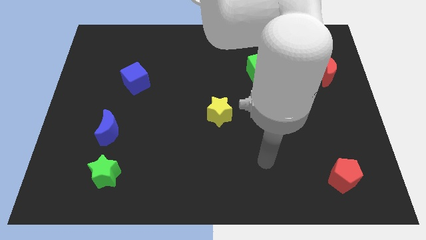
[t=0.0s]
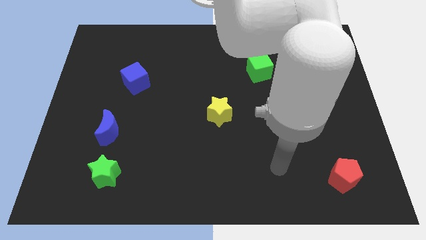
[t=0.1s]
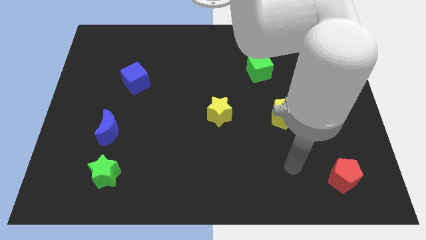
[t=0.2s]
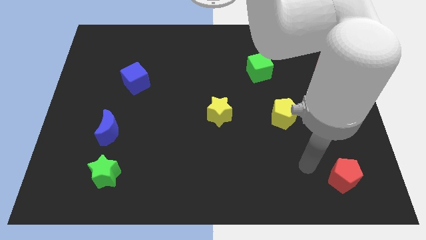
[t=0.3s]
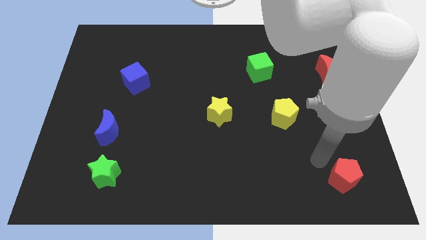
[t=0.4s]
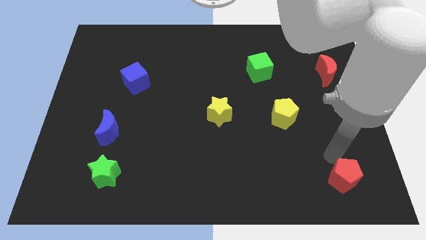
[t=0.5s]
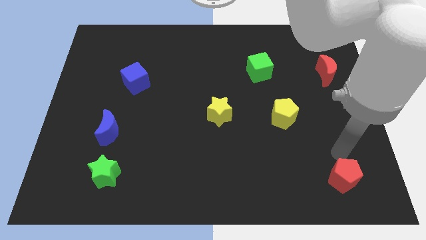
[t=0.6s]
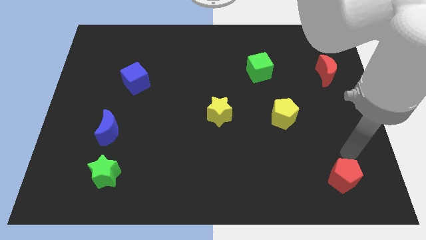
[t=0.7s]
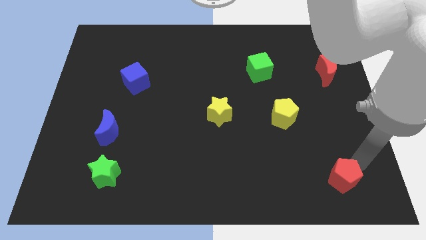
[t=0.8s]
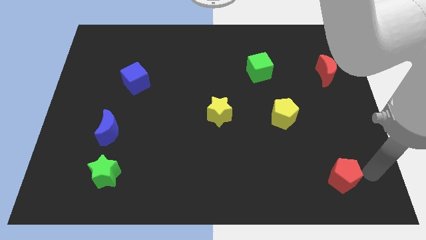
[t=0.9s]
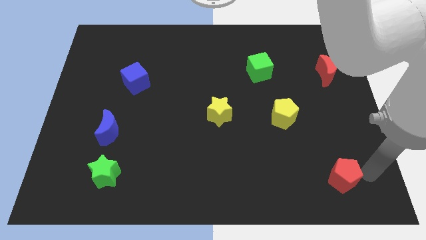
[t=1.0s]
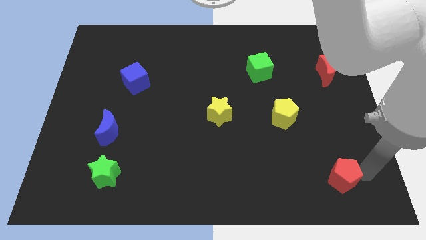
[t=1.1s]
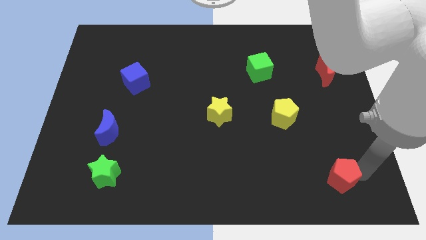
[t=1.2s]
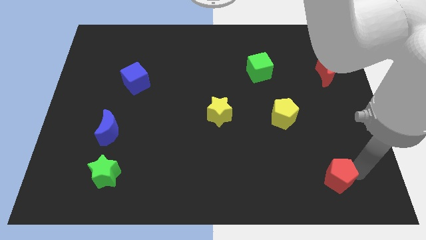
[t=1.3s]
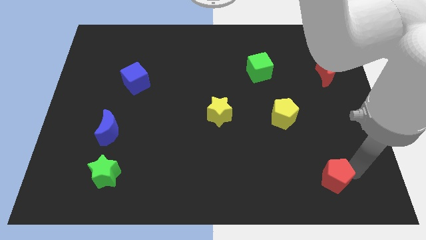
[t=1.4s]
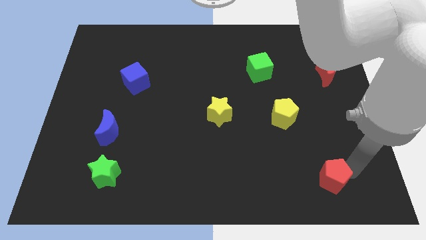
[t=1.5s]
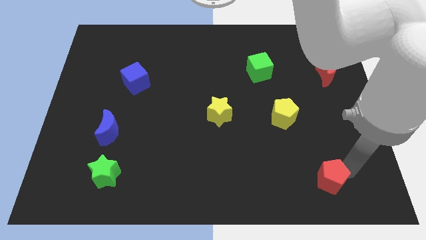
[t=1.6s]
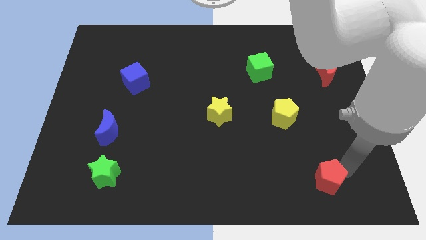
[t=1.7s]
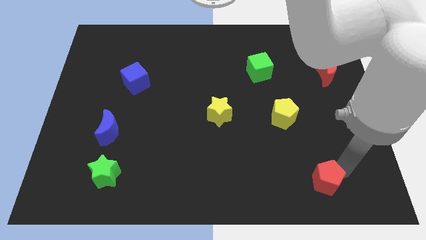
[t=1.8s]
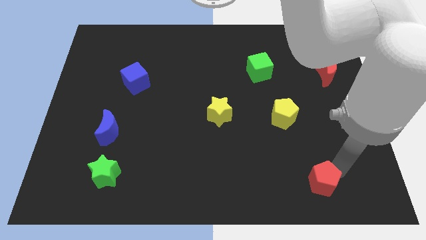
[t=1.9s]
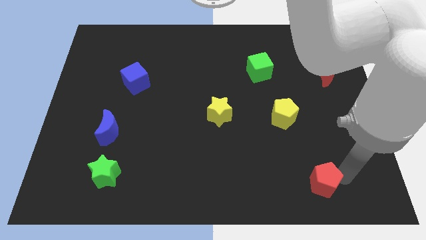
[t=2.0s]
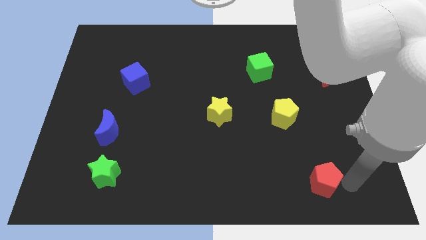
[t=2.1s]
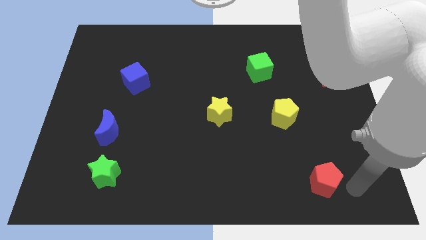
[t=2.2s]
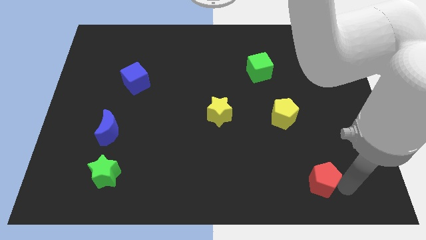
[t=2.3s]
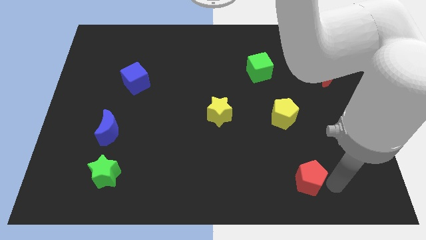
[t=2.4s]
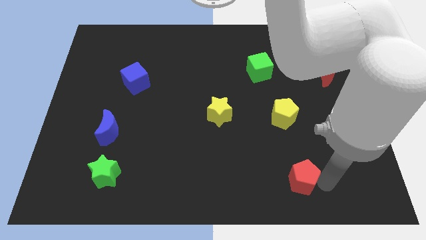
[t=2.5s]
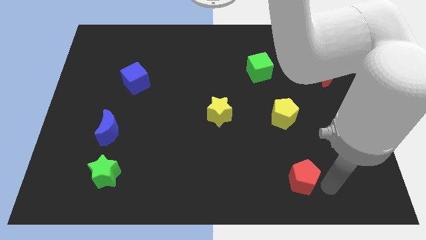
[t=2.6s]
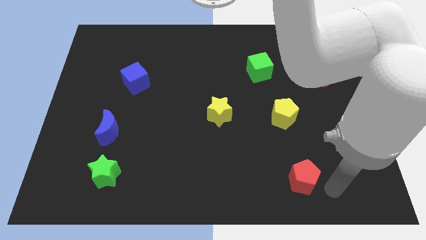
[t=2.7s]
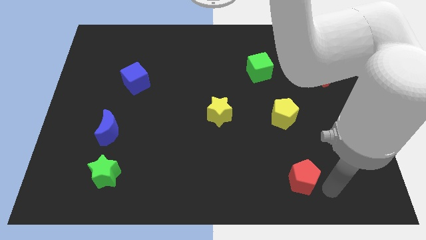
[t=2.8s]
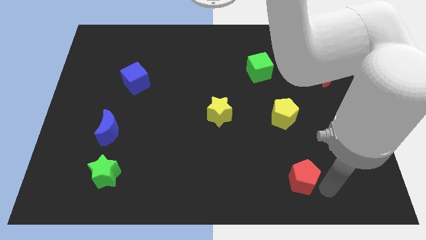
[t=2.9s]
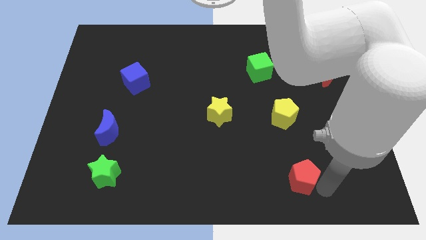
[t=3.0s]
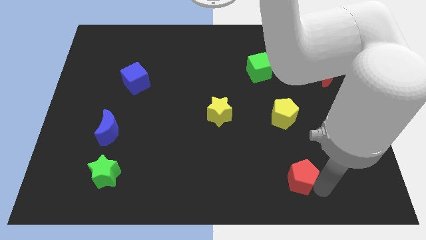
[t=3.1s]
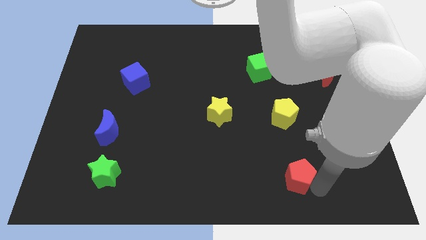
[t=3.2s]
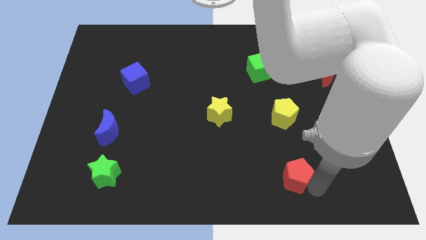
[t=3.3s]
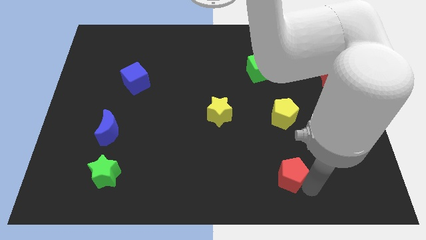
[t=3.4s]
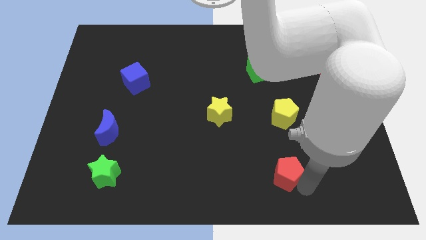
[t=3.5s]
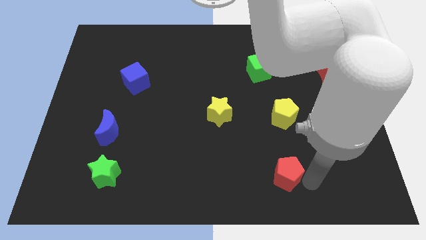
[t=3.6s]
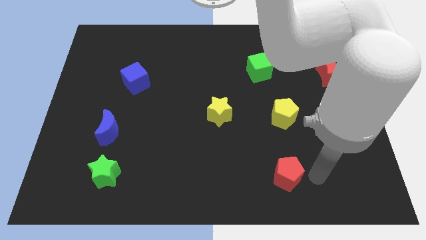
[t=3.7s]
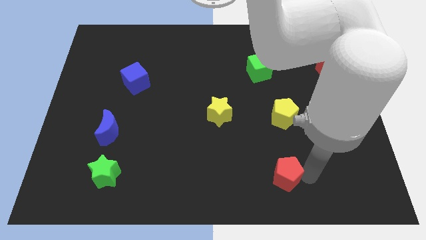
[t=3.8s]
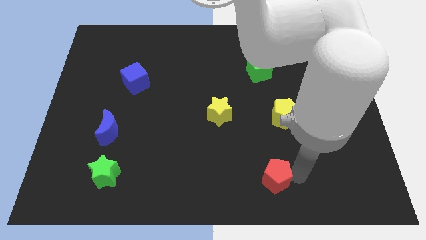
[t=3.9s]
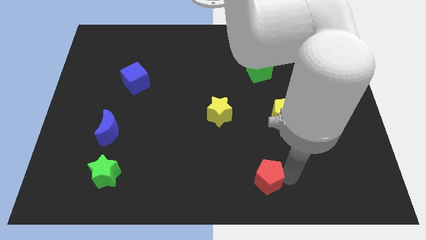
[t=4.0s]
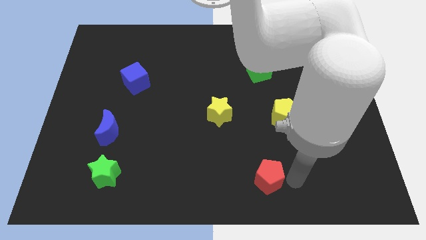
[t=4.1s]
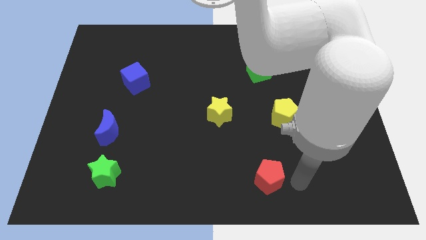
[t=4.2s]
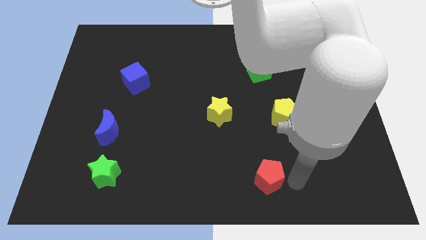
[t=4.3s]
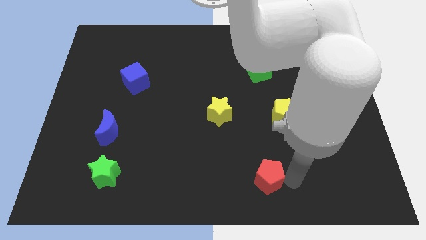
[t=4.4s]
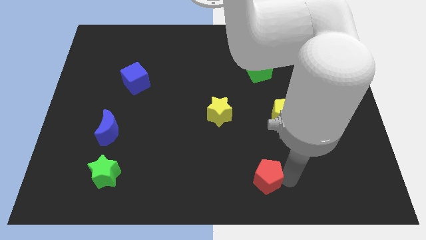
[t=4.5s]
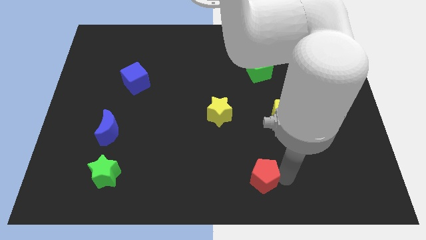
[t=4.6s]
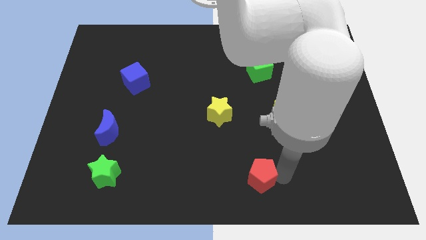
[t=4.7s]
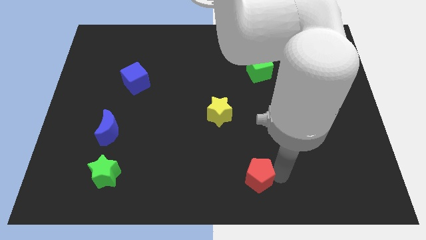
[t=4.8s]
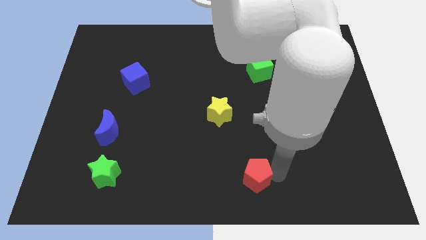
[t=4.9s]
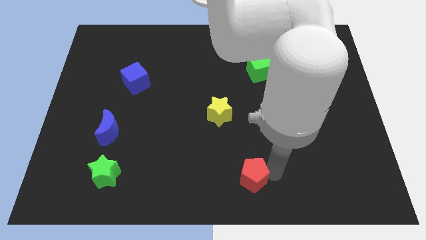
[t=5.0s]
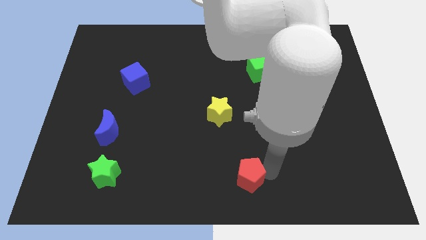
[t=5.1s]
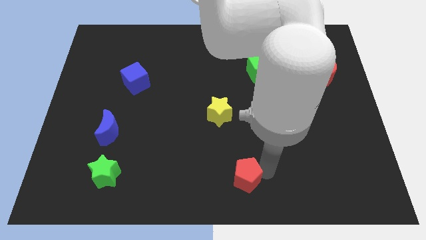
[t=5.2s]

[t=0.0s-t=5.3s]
move the red pentagon left

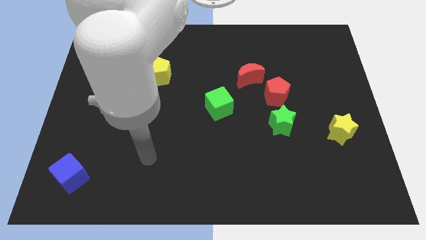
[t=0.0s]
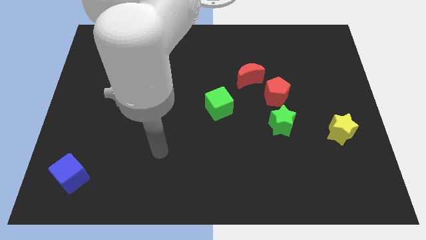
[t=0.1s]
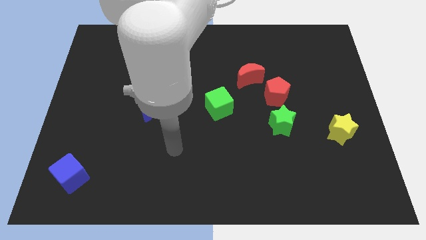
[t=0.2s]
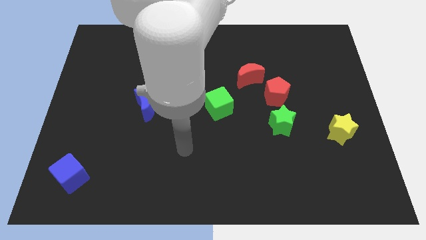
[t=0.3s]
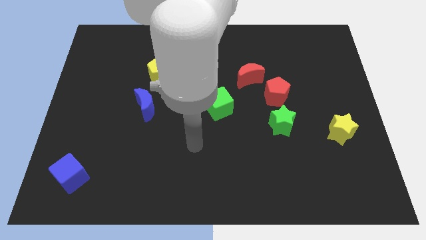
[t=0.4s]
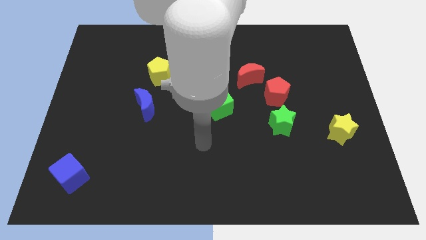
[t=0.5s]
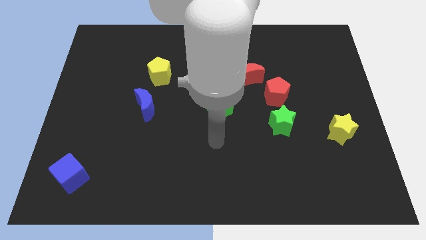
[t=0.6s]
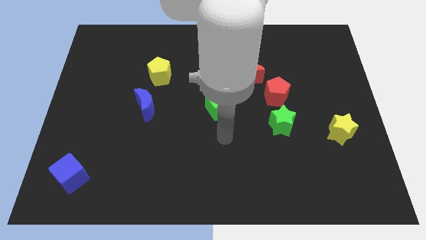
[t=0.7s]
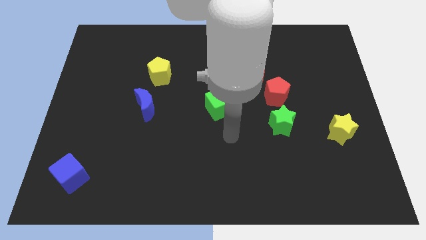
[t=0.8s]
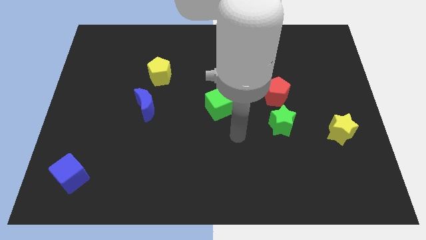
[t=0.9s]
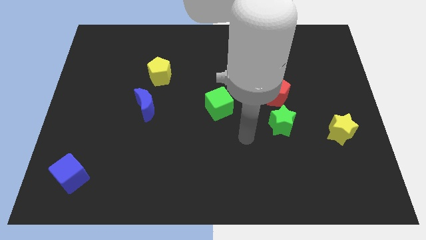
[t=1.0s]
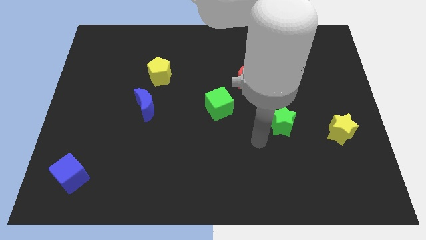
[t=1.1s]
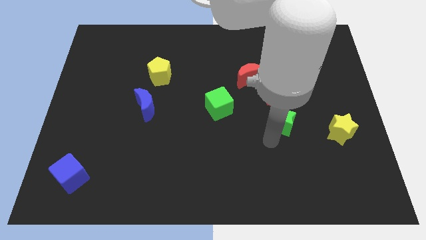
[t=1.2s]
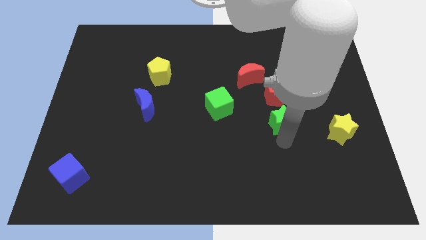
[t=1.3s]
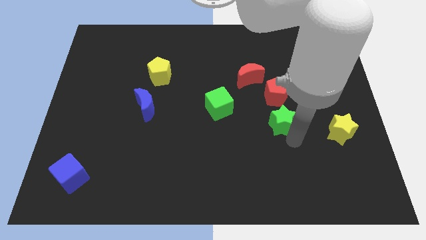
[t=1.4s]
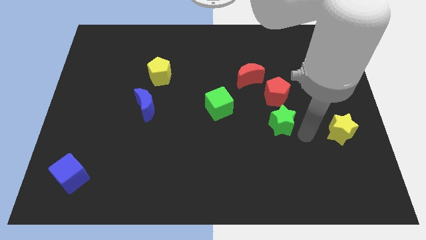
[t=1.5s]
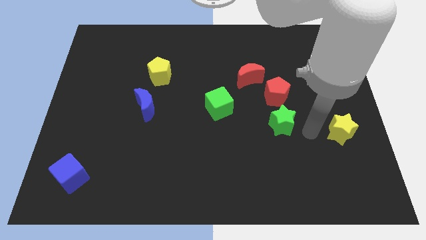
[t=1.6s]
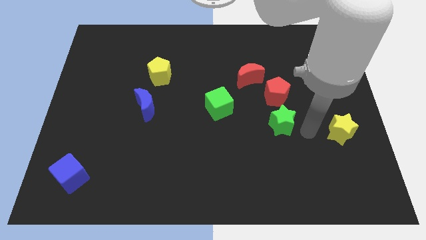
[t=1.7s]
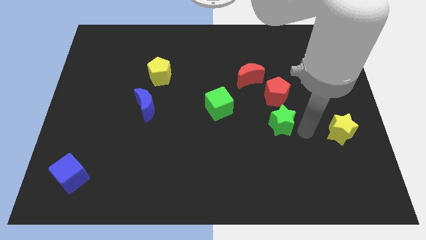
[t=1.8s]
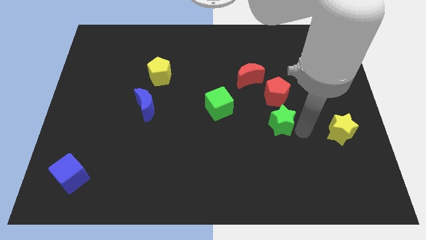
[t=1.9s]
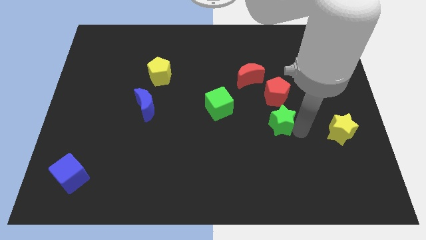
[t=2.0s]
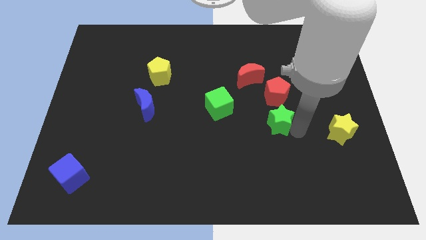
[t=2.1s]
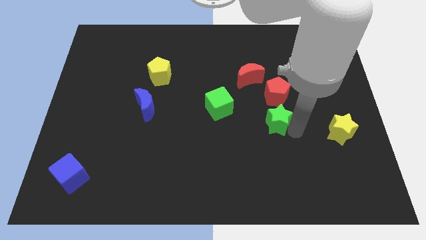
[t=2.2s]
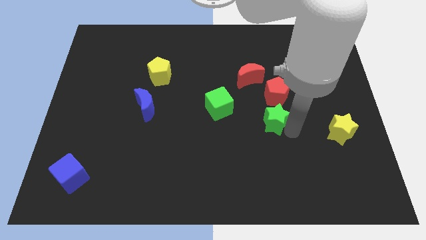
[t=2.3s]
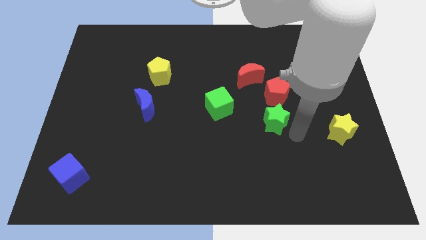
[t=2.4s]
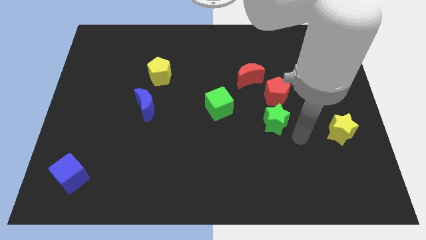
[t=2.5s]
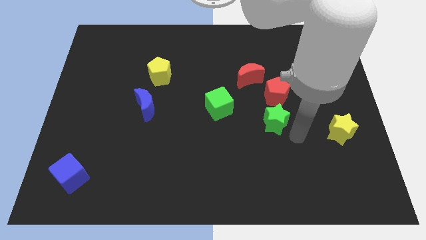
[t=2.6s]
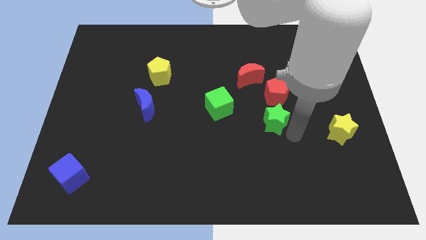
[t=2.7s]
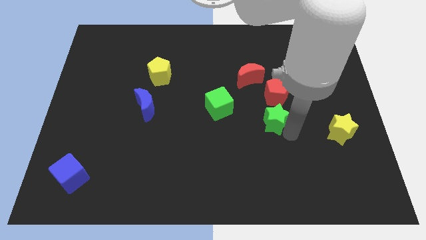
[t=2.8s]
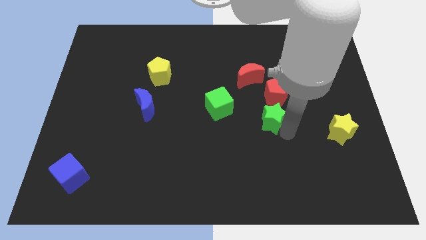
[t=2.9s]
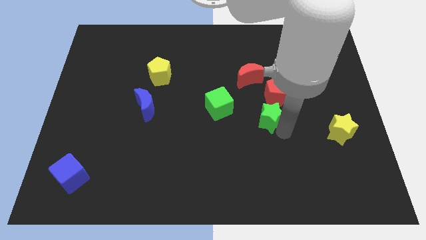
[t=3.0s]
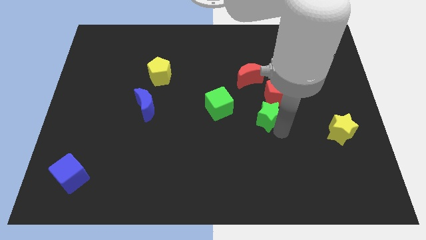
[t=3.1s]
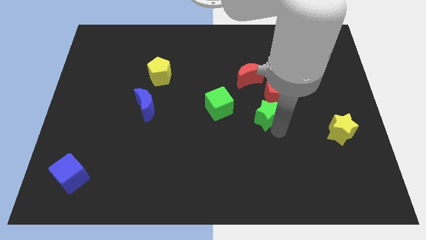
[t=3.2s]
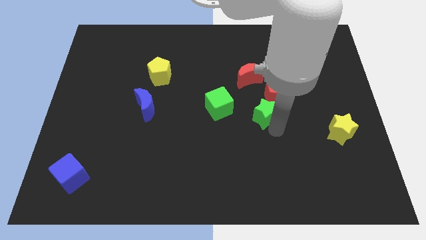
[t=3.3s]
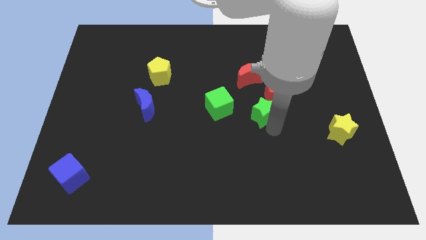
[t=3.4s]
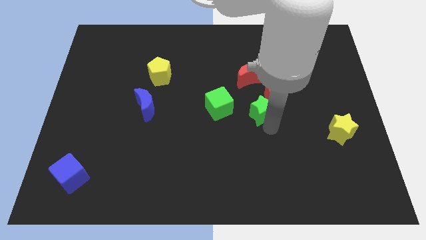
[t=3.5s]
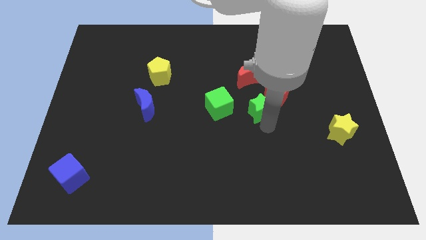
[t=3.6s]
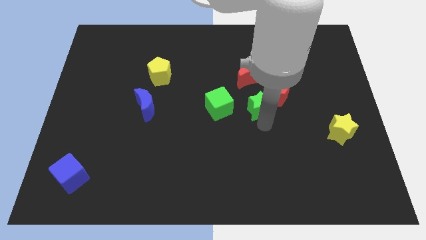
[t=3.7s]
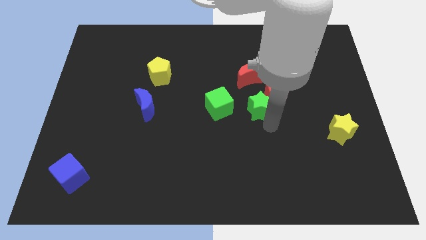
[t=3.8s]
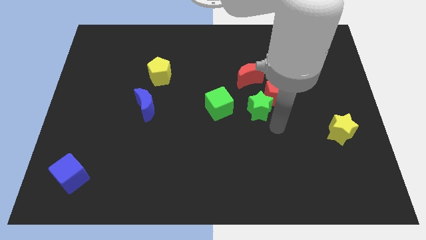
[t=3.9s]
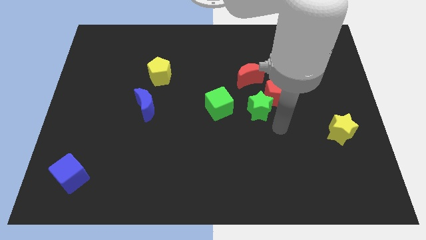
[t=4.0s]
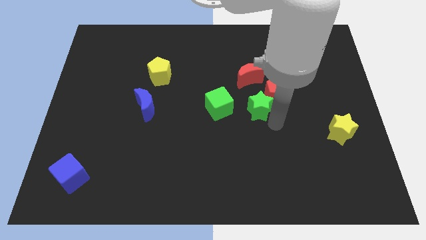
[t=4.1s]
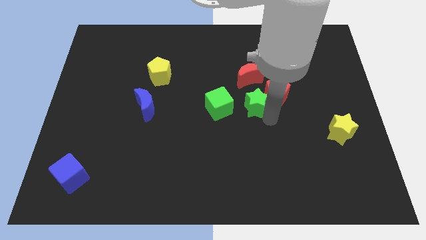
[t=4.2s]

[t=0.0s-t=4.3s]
slightly push the green star diagonally up and to the left
